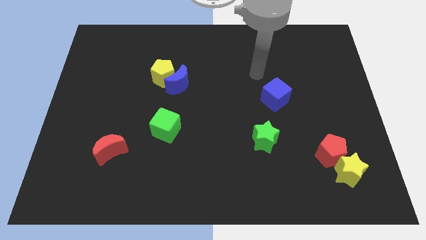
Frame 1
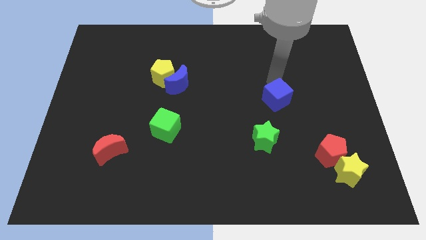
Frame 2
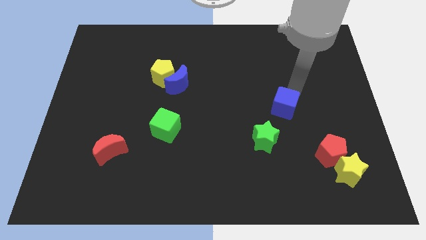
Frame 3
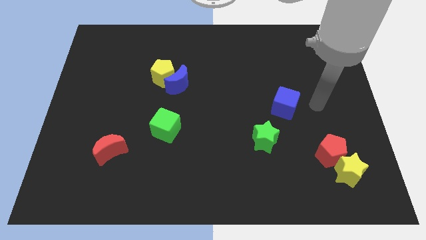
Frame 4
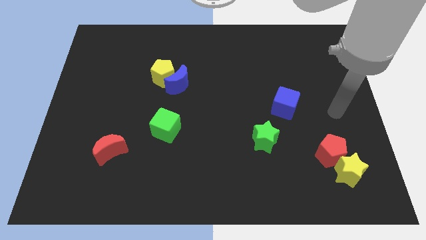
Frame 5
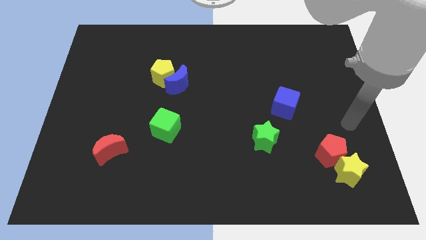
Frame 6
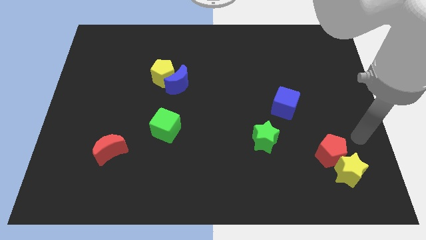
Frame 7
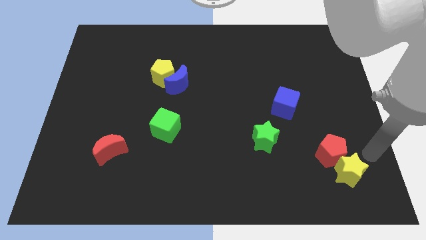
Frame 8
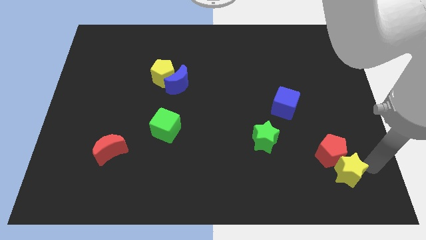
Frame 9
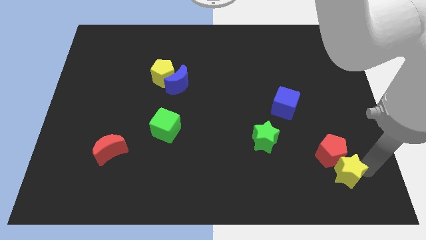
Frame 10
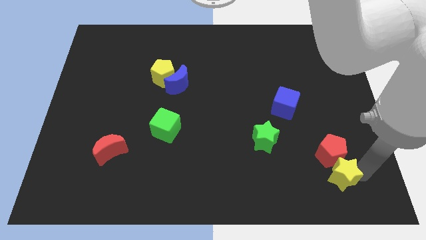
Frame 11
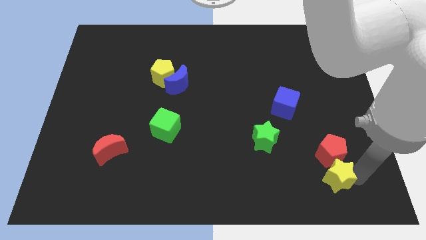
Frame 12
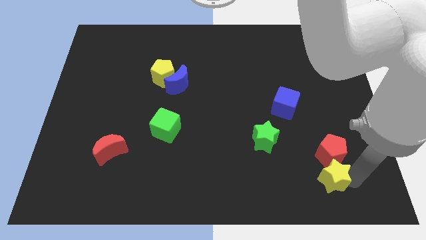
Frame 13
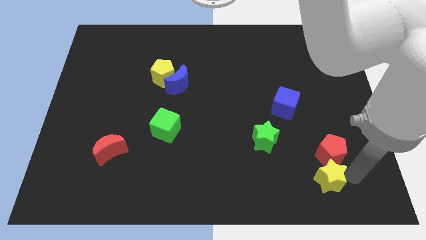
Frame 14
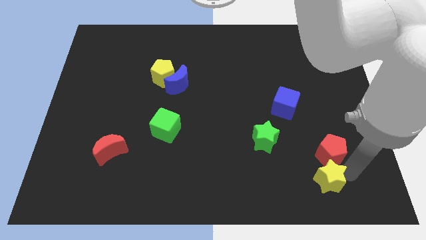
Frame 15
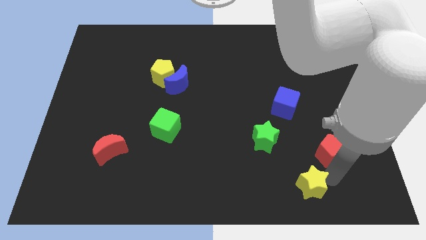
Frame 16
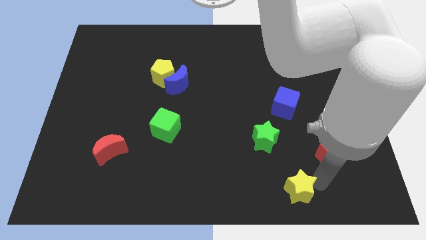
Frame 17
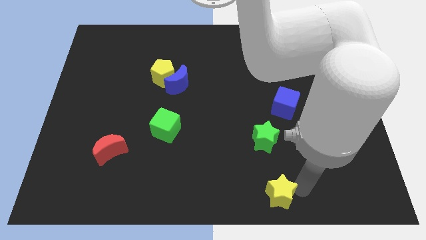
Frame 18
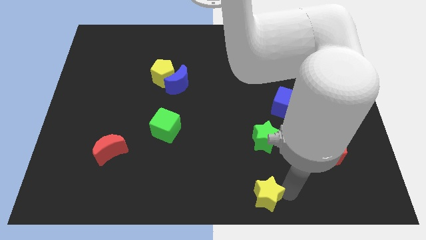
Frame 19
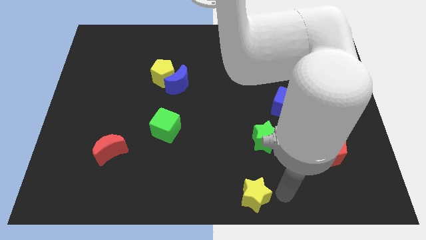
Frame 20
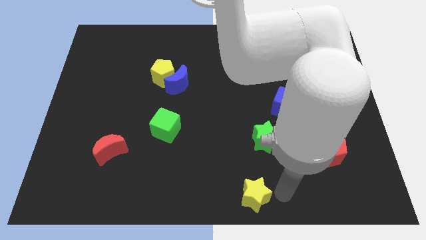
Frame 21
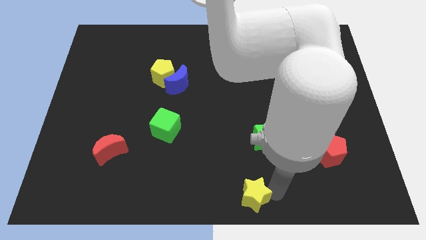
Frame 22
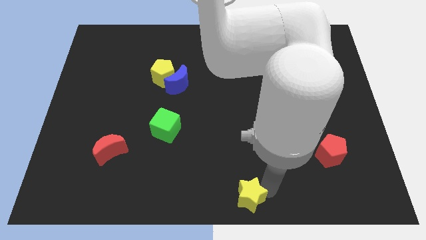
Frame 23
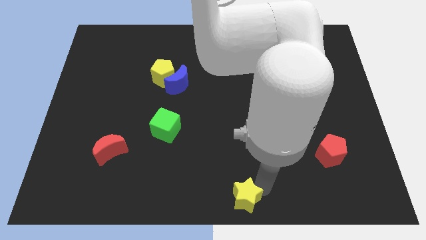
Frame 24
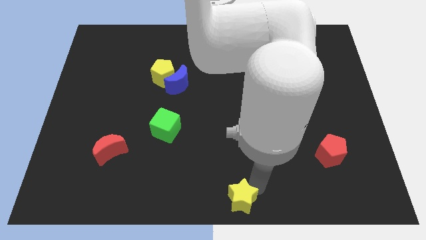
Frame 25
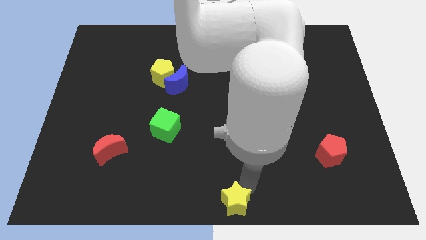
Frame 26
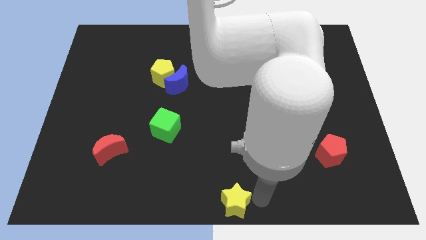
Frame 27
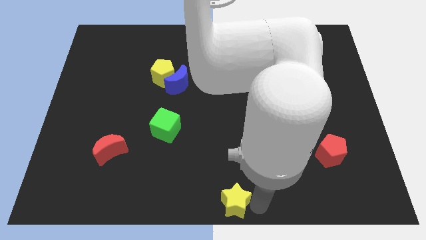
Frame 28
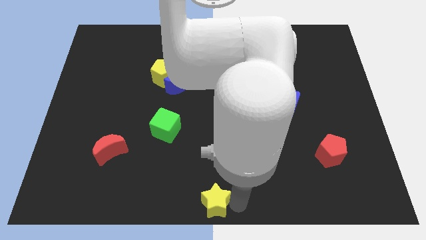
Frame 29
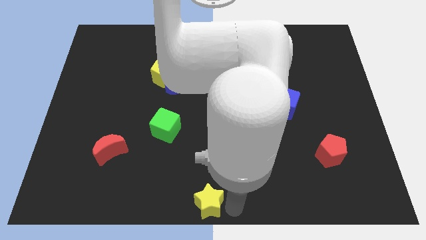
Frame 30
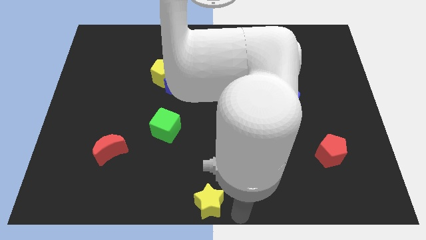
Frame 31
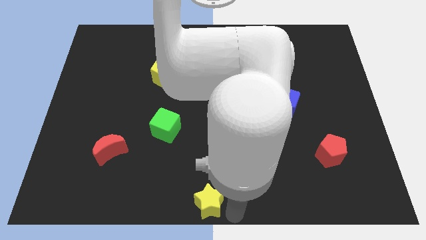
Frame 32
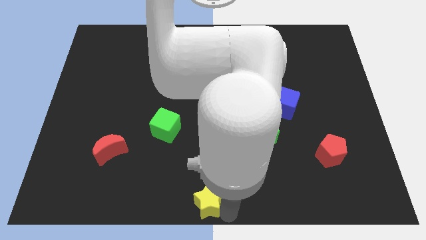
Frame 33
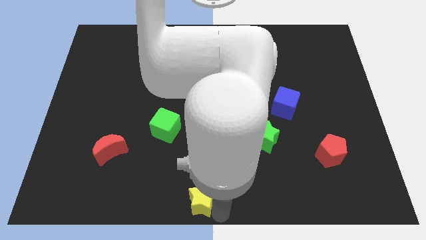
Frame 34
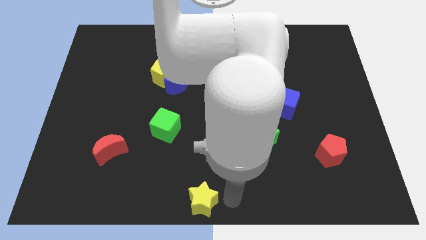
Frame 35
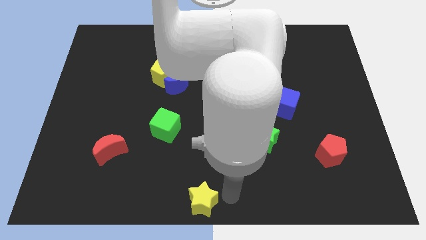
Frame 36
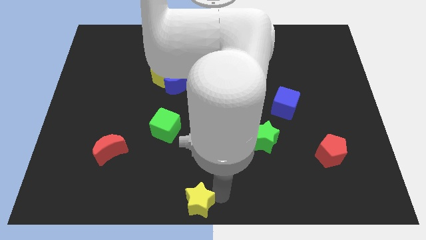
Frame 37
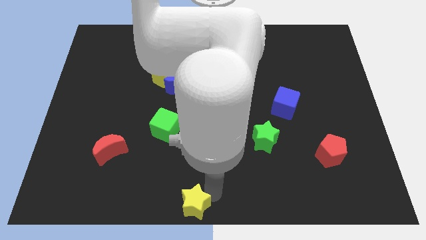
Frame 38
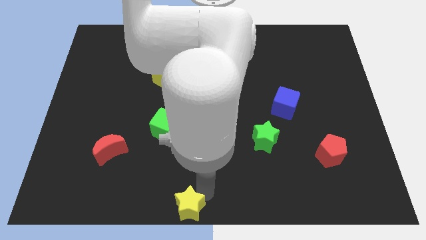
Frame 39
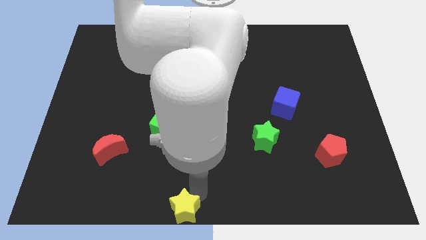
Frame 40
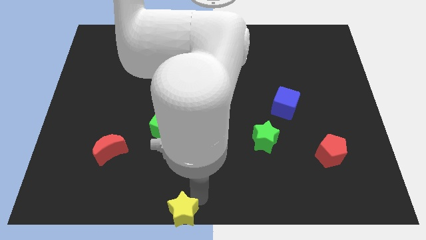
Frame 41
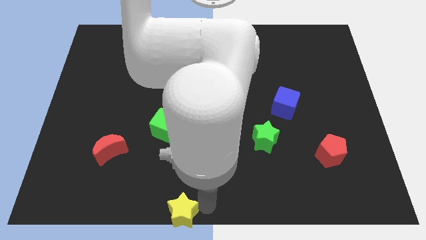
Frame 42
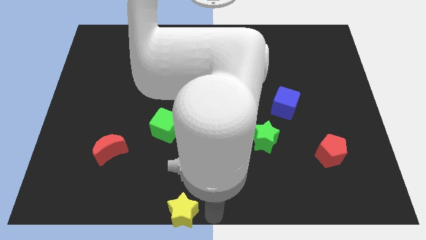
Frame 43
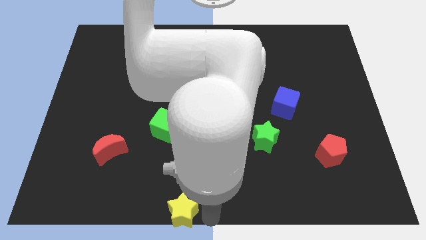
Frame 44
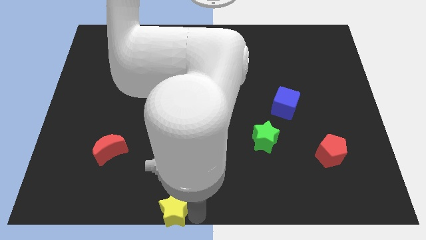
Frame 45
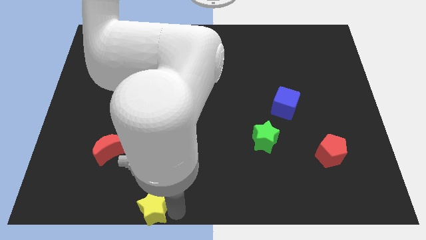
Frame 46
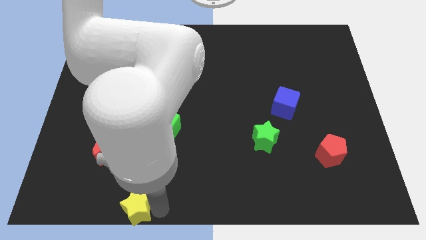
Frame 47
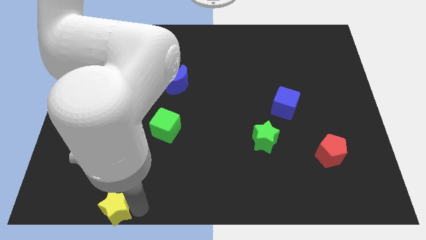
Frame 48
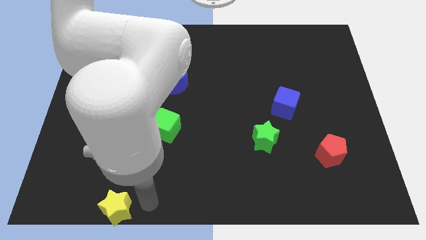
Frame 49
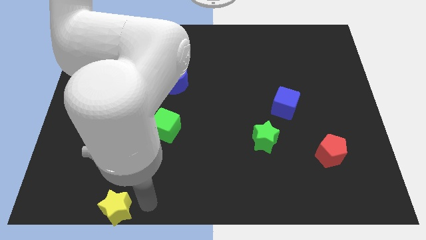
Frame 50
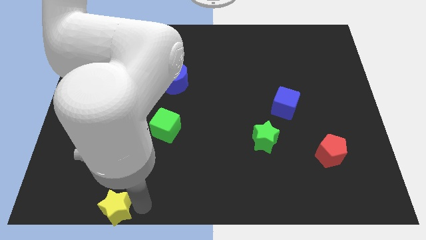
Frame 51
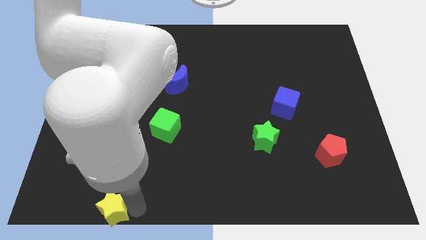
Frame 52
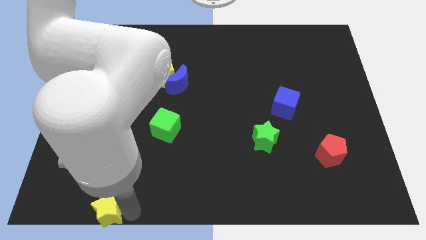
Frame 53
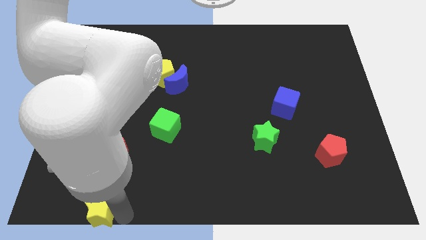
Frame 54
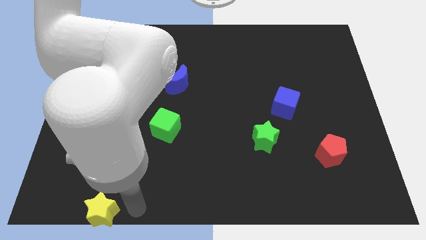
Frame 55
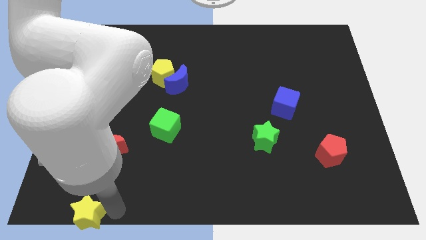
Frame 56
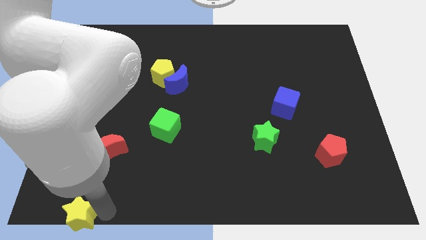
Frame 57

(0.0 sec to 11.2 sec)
slide the yellow star to the lower left corner

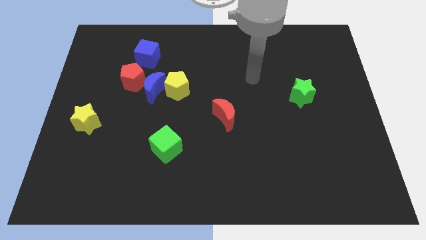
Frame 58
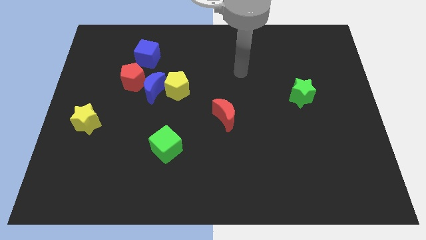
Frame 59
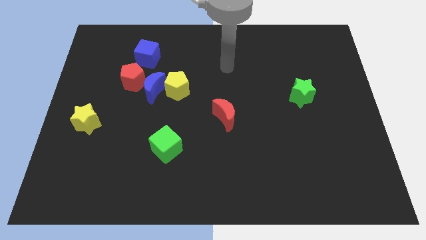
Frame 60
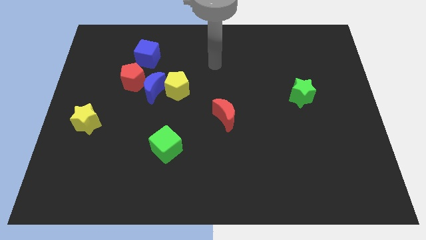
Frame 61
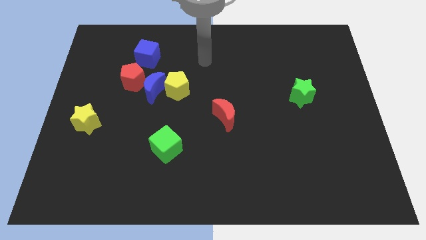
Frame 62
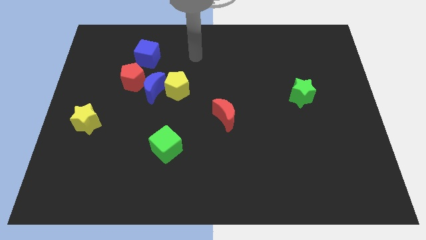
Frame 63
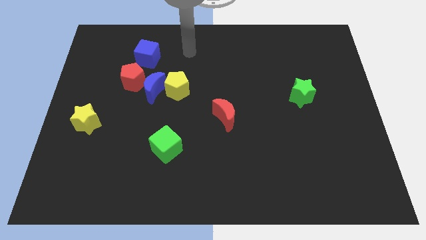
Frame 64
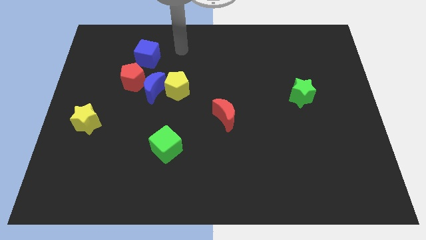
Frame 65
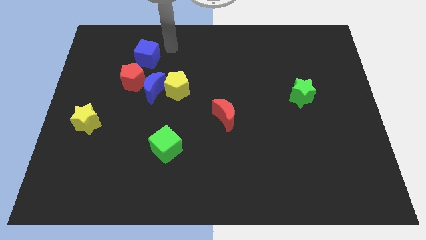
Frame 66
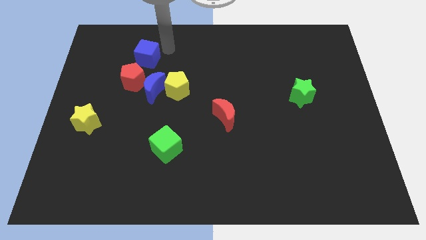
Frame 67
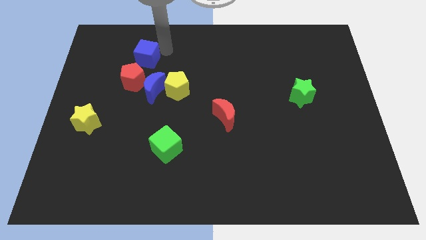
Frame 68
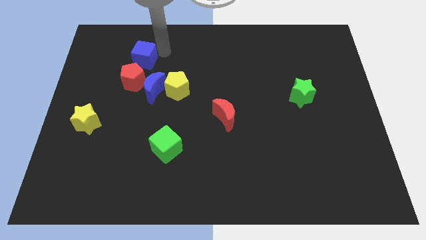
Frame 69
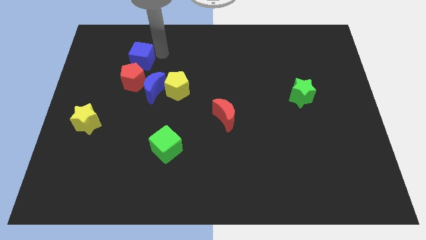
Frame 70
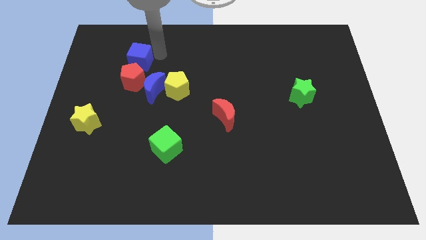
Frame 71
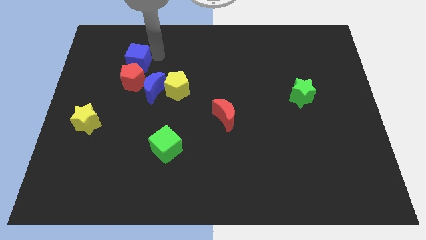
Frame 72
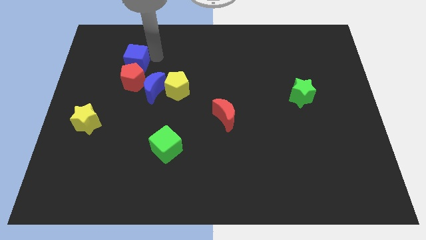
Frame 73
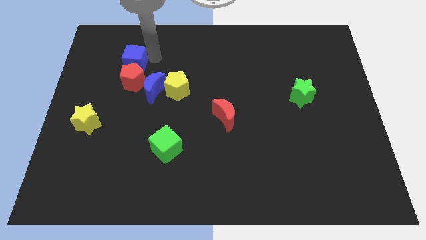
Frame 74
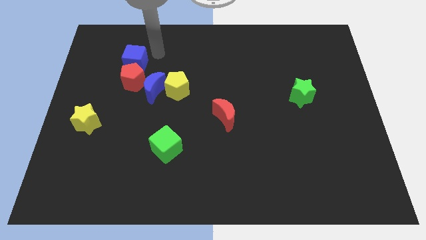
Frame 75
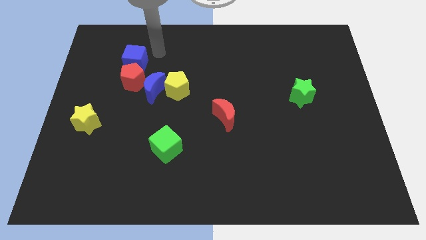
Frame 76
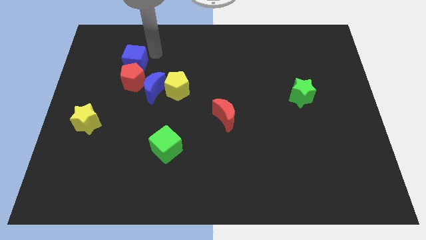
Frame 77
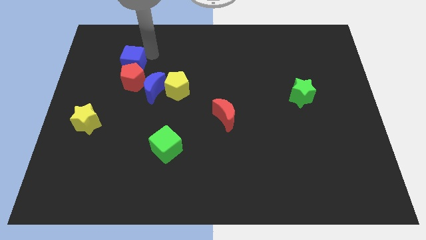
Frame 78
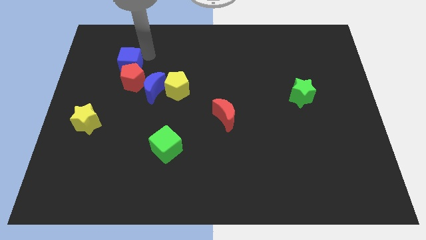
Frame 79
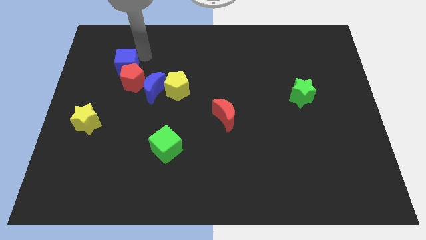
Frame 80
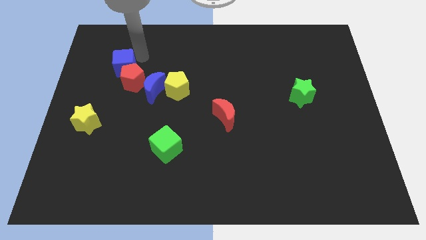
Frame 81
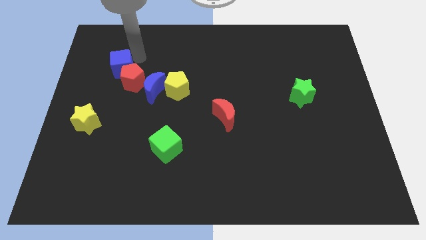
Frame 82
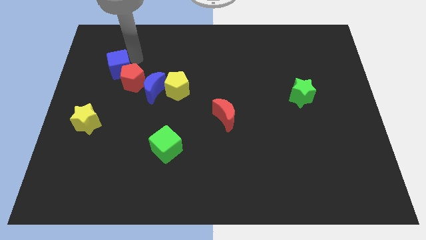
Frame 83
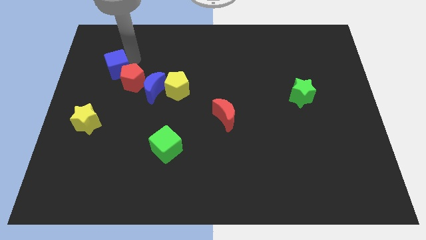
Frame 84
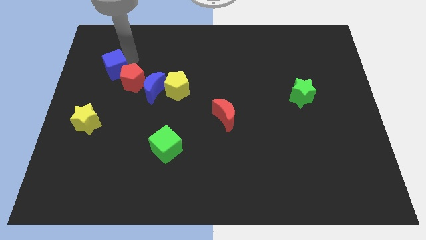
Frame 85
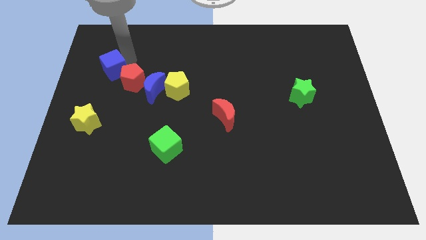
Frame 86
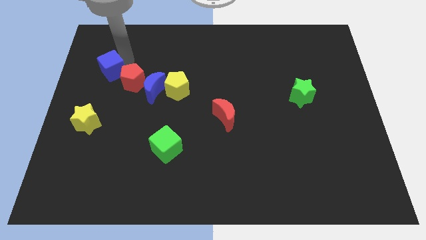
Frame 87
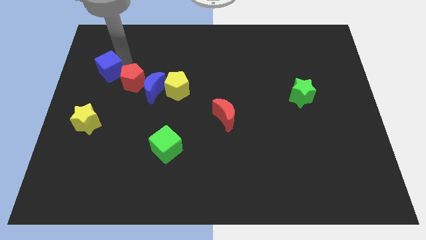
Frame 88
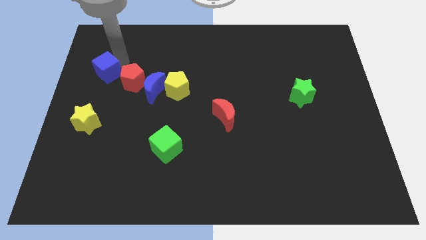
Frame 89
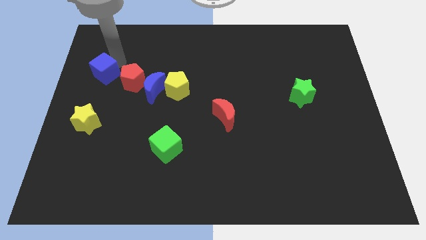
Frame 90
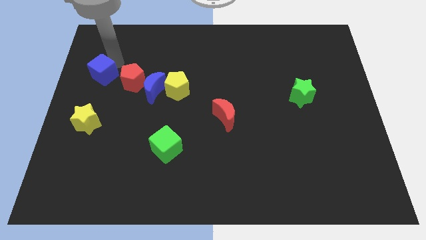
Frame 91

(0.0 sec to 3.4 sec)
push the blue cube to the center left
